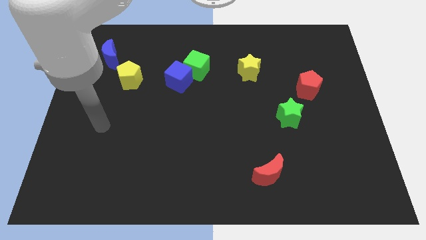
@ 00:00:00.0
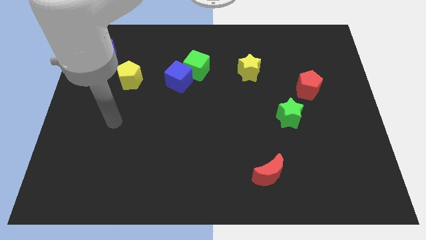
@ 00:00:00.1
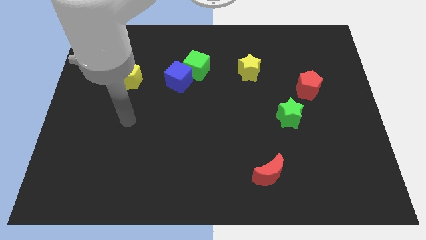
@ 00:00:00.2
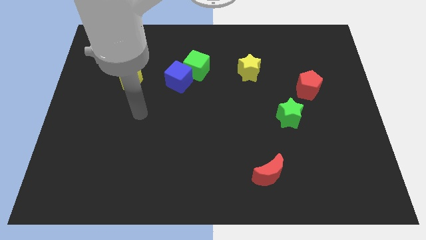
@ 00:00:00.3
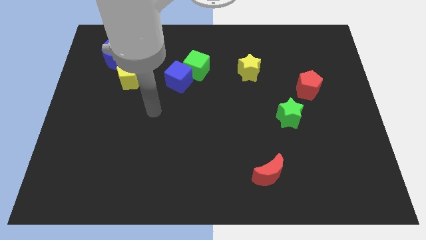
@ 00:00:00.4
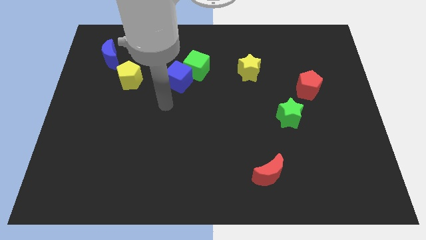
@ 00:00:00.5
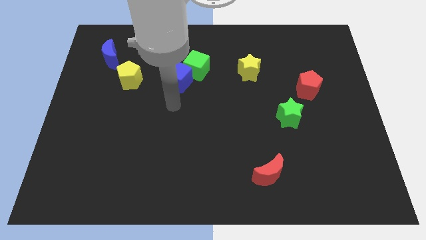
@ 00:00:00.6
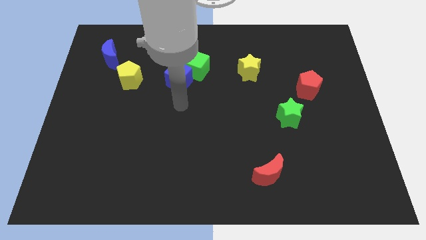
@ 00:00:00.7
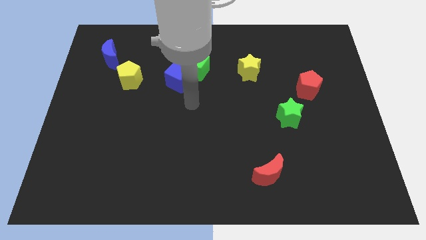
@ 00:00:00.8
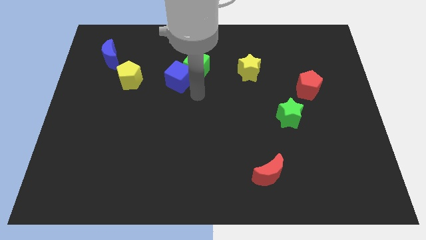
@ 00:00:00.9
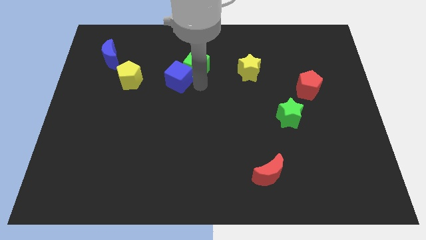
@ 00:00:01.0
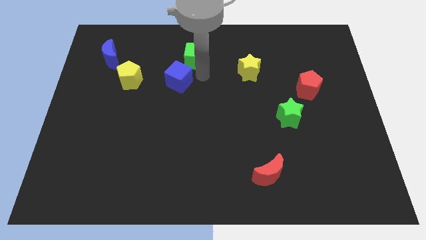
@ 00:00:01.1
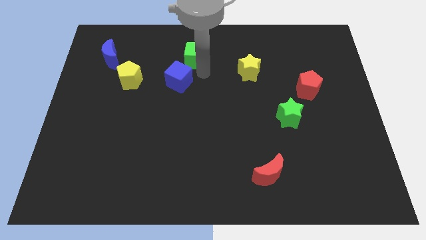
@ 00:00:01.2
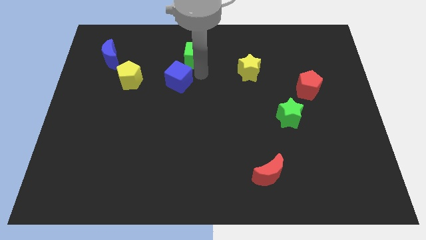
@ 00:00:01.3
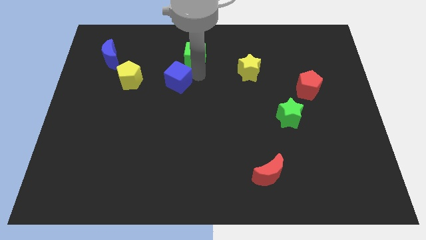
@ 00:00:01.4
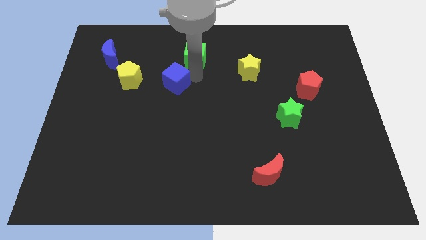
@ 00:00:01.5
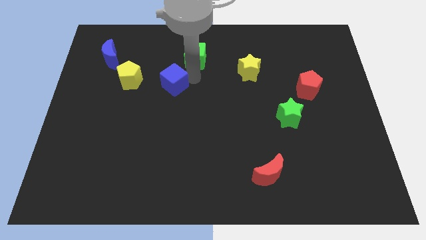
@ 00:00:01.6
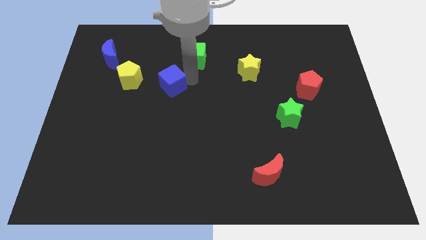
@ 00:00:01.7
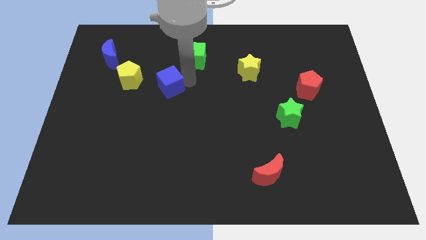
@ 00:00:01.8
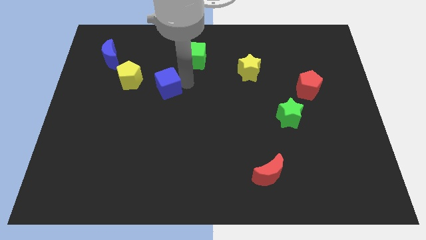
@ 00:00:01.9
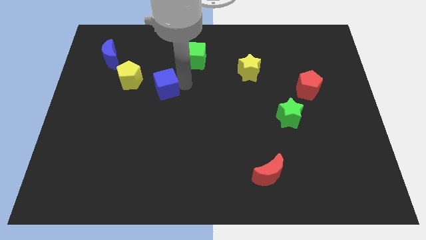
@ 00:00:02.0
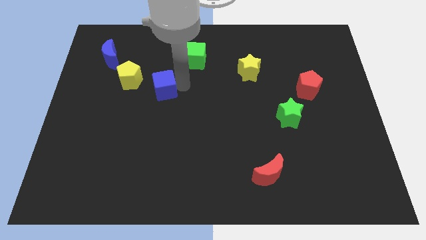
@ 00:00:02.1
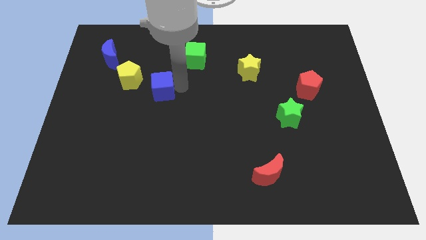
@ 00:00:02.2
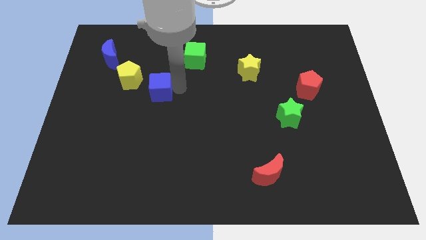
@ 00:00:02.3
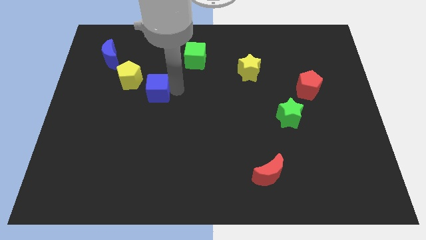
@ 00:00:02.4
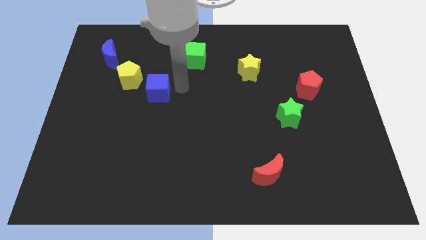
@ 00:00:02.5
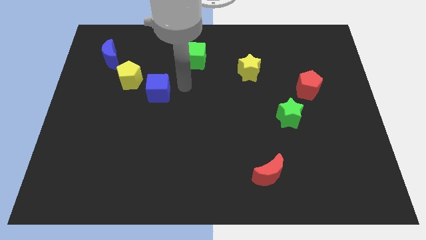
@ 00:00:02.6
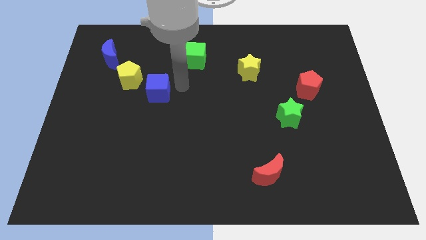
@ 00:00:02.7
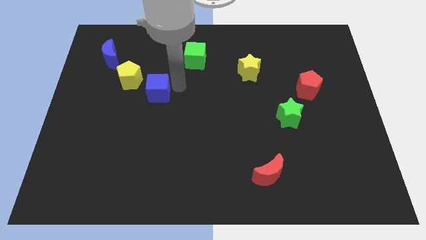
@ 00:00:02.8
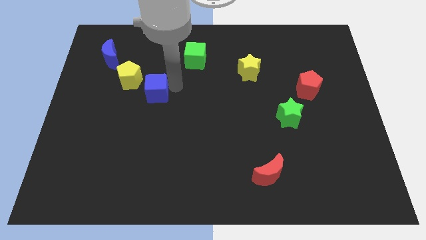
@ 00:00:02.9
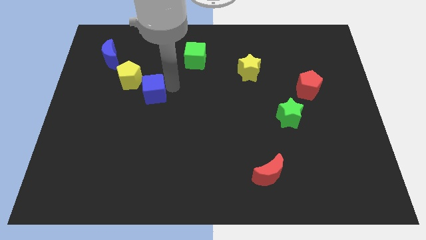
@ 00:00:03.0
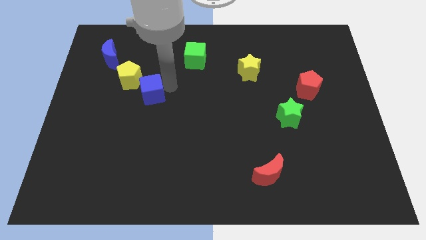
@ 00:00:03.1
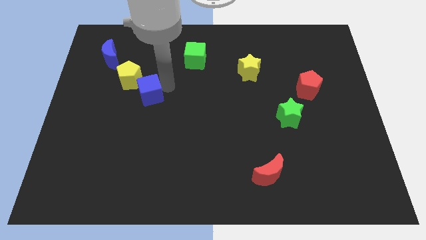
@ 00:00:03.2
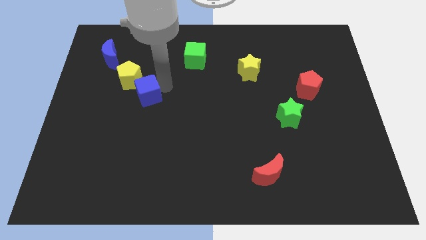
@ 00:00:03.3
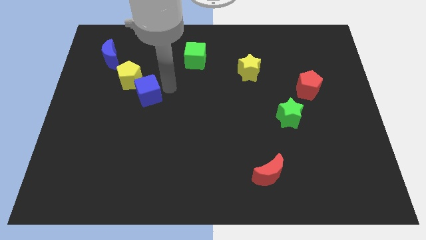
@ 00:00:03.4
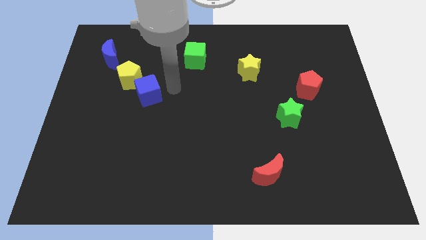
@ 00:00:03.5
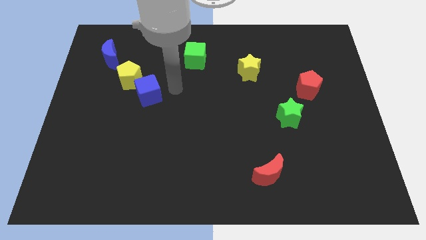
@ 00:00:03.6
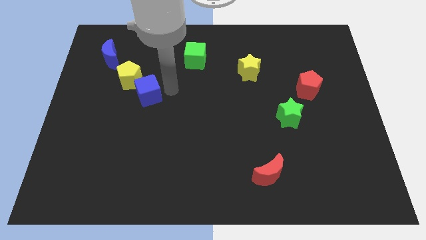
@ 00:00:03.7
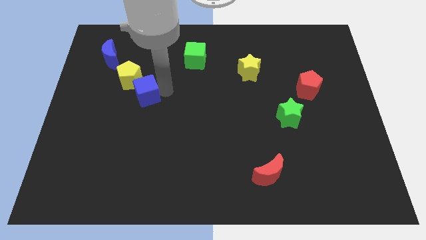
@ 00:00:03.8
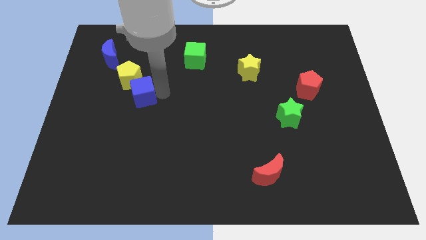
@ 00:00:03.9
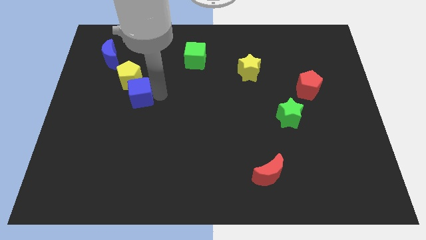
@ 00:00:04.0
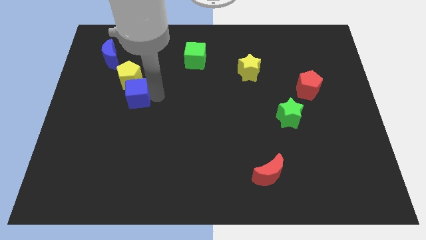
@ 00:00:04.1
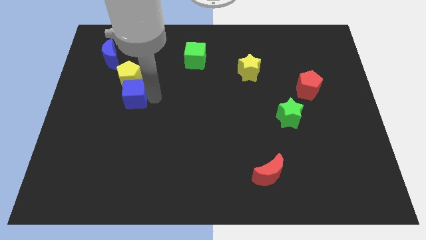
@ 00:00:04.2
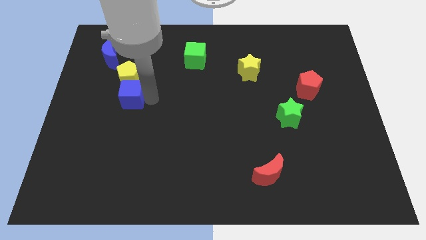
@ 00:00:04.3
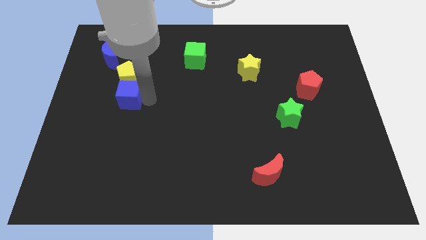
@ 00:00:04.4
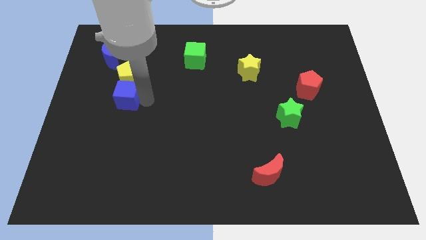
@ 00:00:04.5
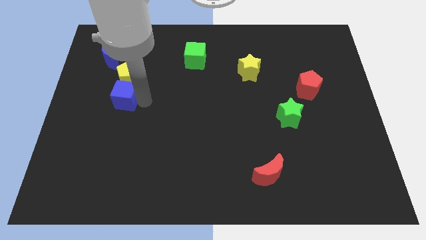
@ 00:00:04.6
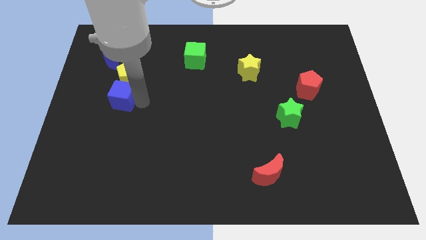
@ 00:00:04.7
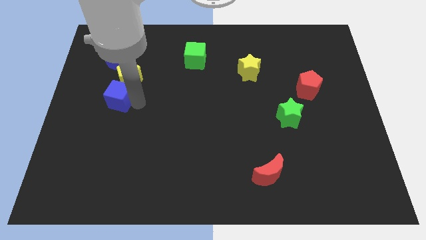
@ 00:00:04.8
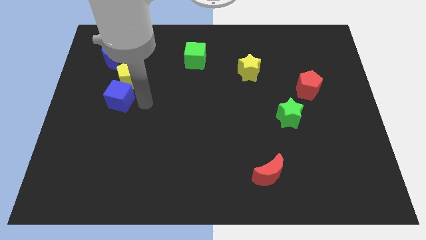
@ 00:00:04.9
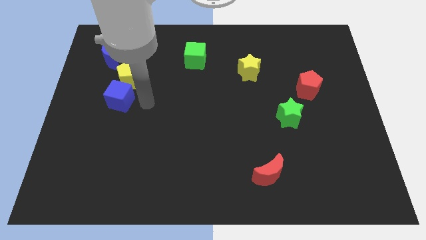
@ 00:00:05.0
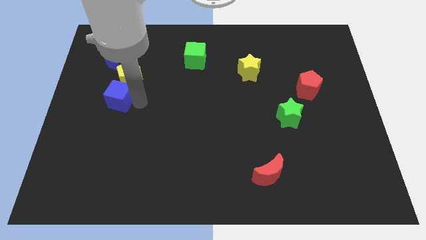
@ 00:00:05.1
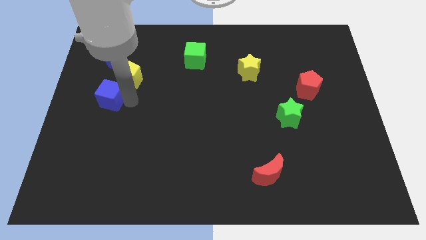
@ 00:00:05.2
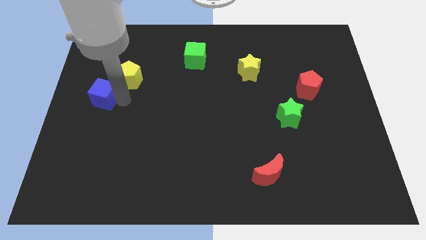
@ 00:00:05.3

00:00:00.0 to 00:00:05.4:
move the blue cube to the center left
